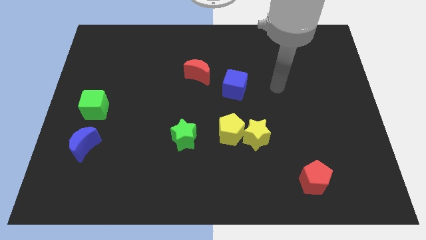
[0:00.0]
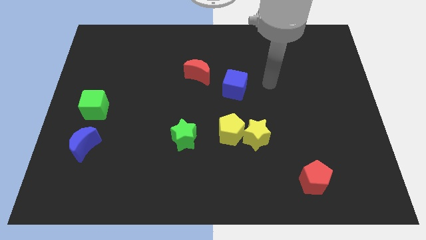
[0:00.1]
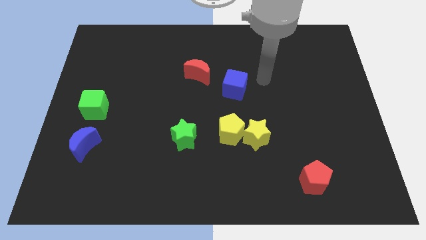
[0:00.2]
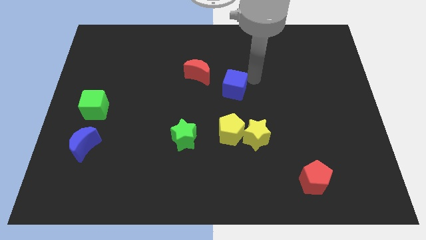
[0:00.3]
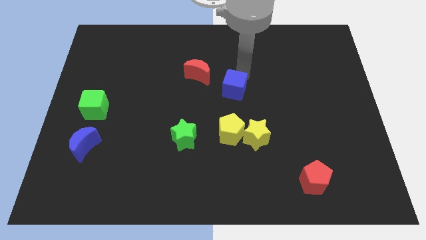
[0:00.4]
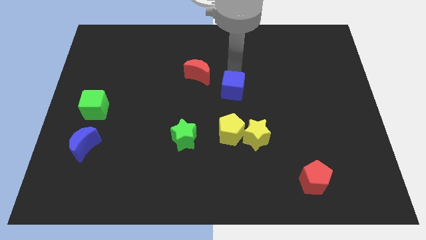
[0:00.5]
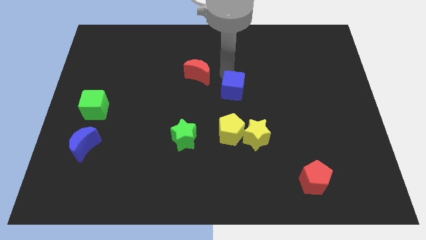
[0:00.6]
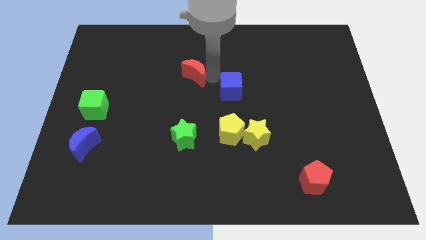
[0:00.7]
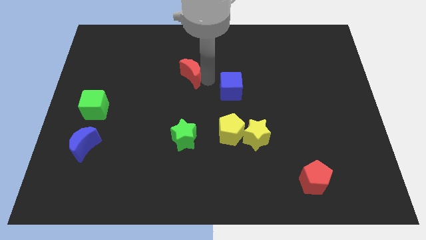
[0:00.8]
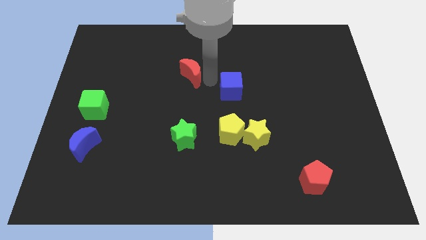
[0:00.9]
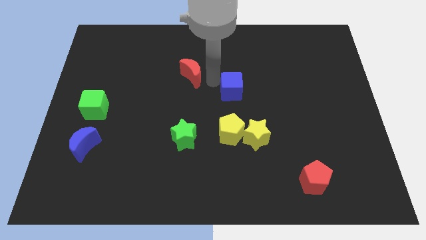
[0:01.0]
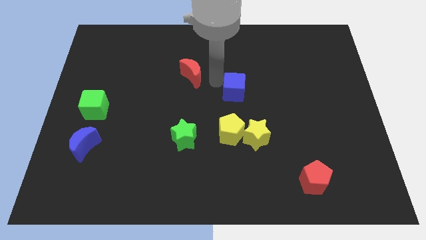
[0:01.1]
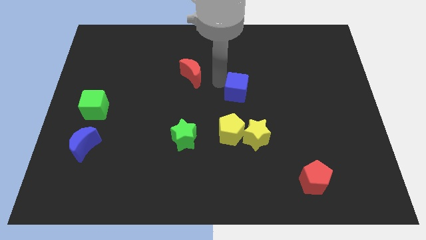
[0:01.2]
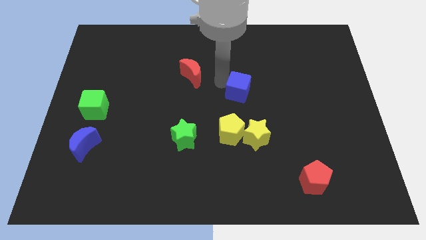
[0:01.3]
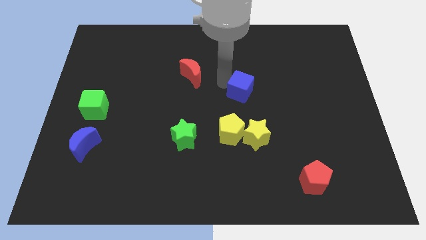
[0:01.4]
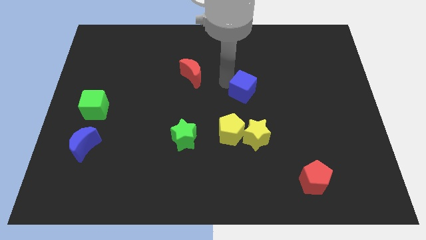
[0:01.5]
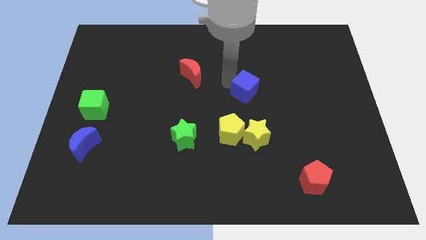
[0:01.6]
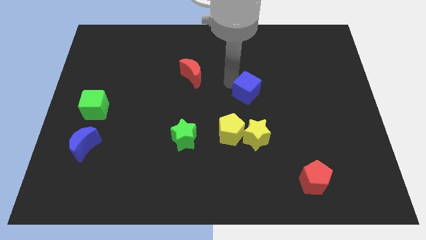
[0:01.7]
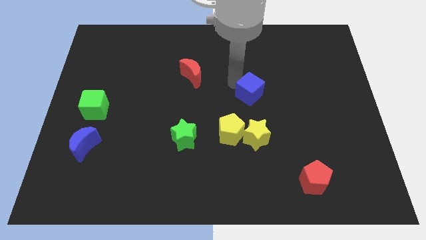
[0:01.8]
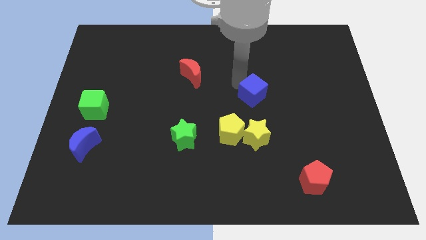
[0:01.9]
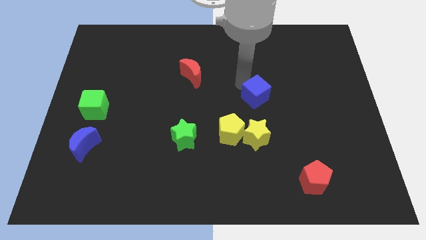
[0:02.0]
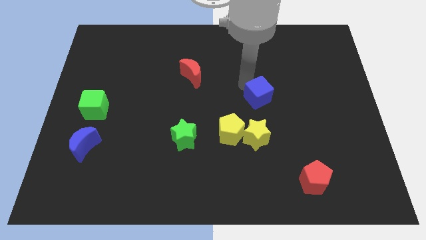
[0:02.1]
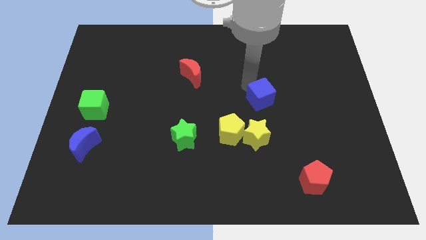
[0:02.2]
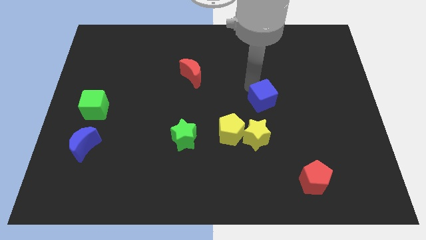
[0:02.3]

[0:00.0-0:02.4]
slightly push the blue cube down and to the right

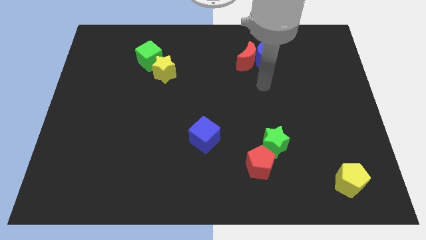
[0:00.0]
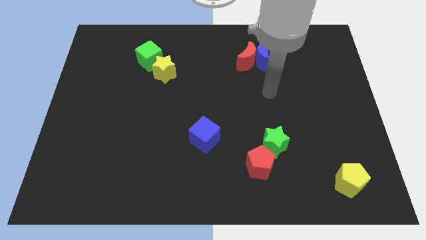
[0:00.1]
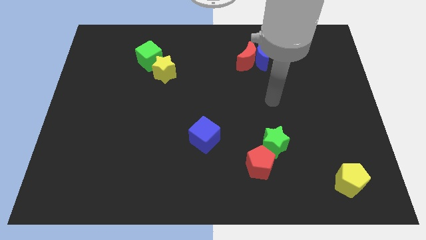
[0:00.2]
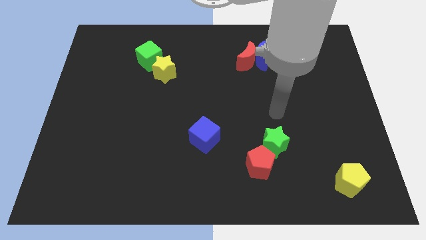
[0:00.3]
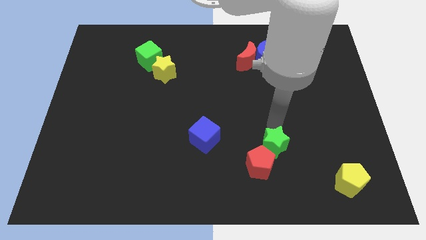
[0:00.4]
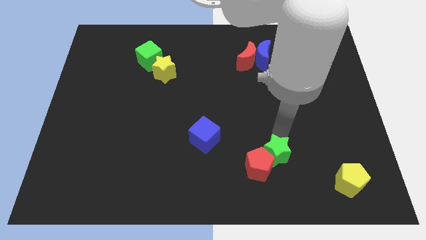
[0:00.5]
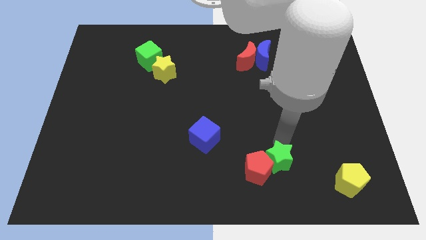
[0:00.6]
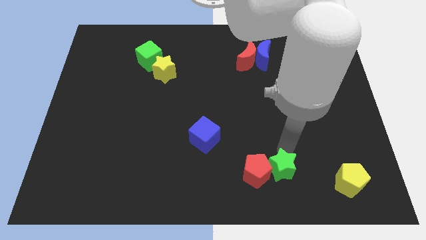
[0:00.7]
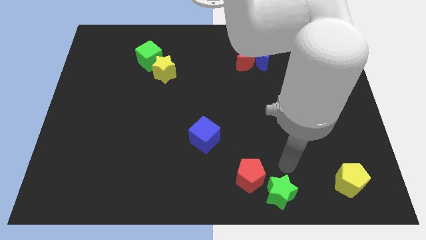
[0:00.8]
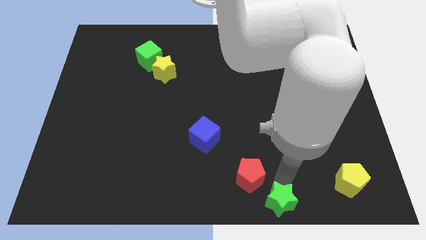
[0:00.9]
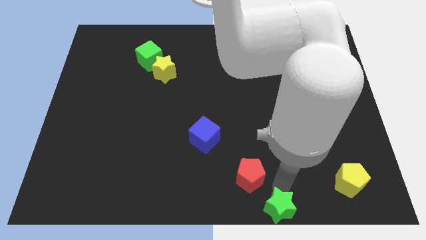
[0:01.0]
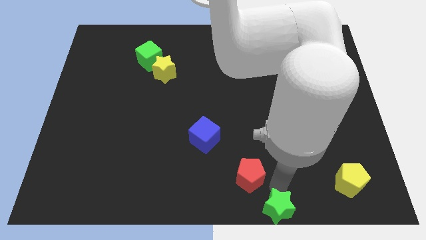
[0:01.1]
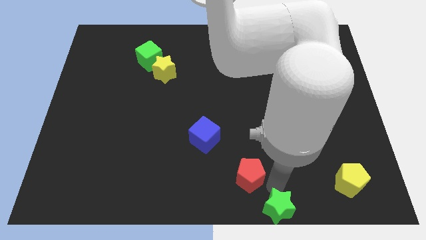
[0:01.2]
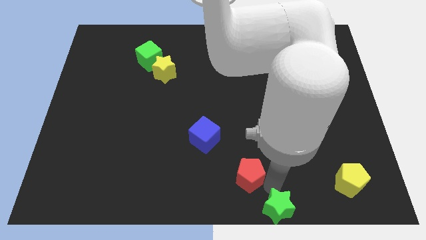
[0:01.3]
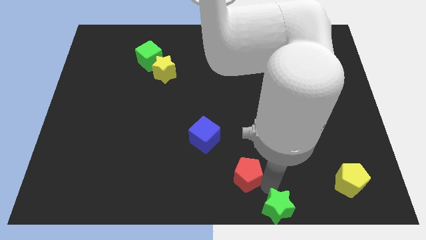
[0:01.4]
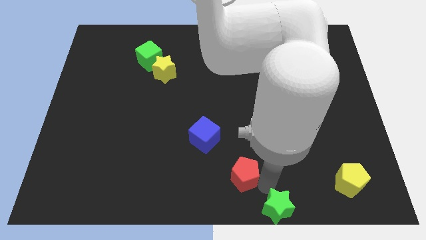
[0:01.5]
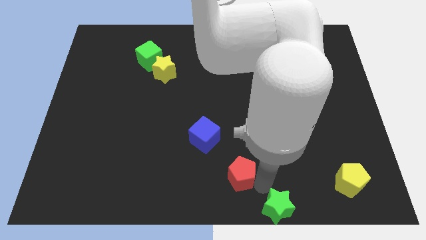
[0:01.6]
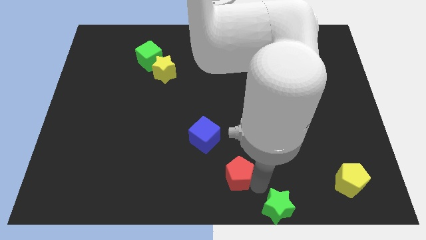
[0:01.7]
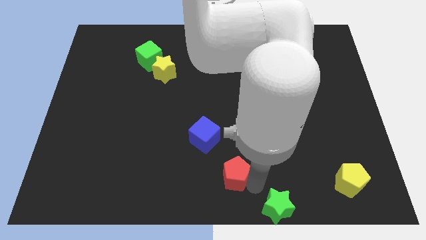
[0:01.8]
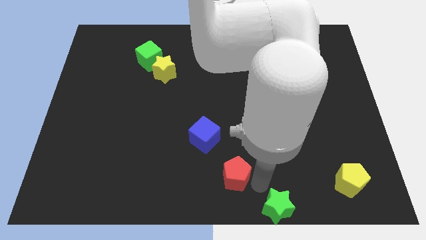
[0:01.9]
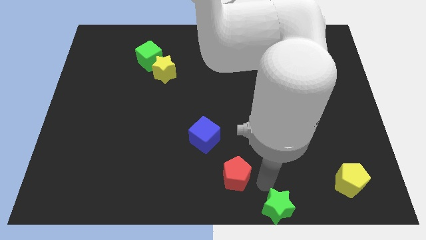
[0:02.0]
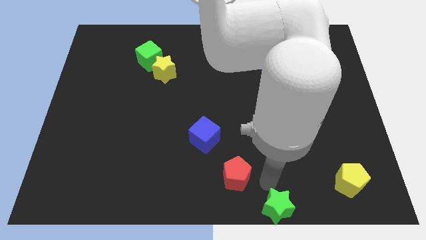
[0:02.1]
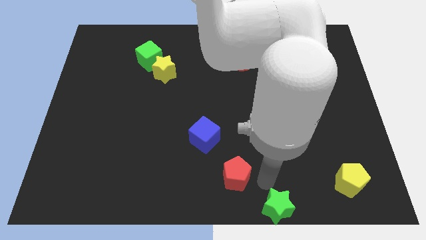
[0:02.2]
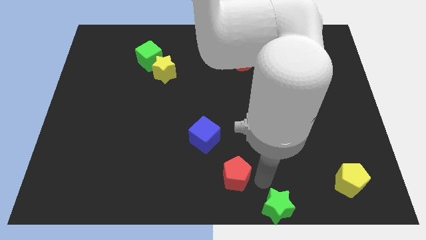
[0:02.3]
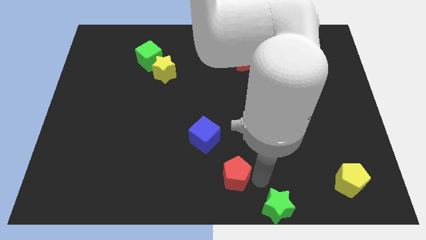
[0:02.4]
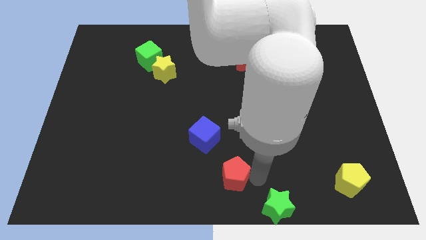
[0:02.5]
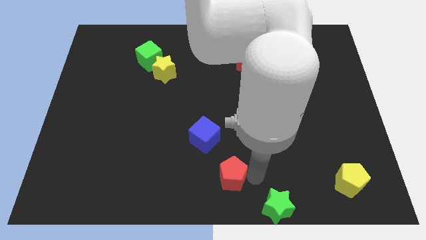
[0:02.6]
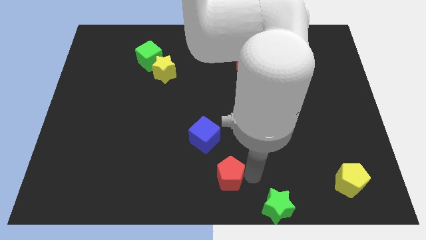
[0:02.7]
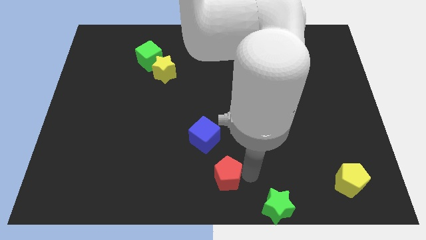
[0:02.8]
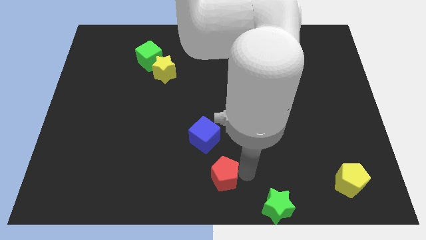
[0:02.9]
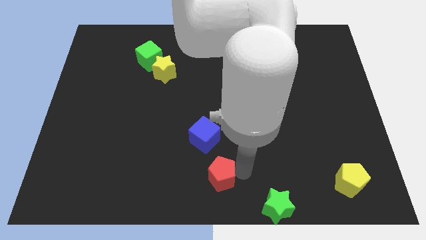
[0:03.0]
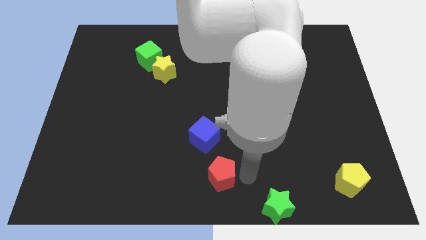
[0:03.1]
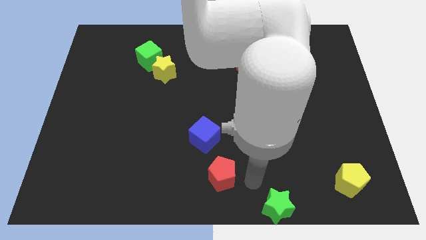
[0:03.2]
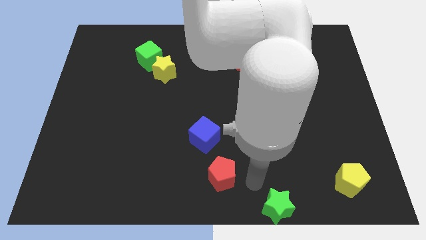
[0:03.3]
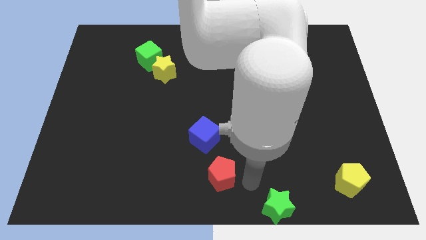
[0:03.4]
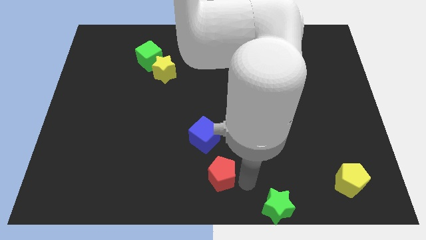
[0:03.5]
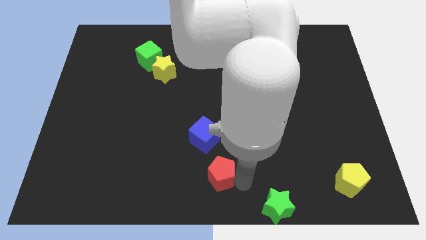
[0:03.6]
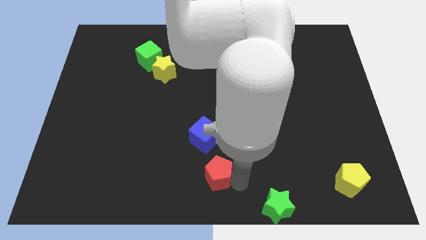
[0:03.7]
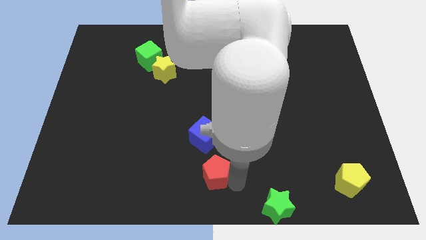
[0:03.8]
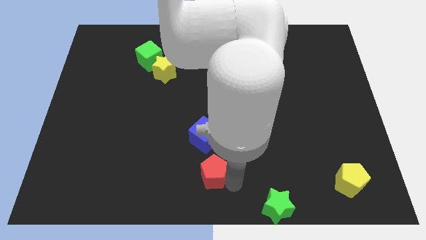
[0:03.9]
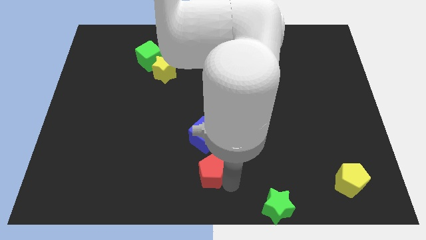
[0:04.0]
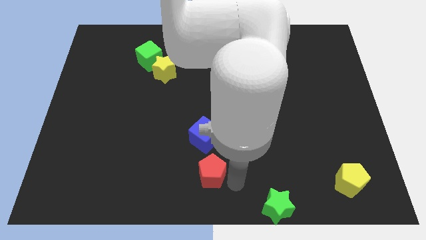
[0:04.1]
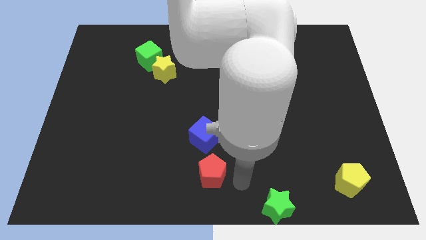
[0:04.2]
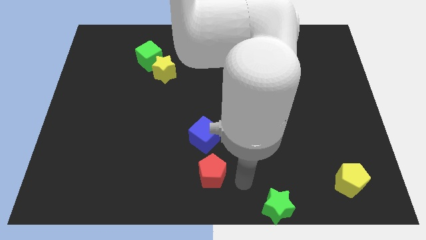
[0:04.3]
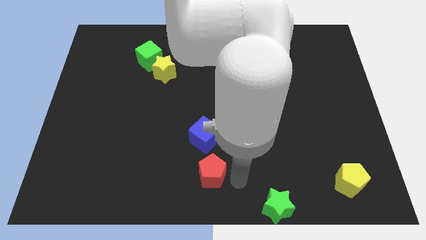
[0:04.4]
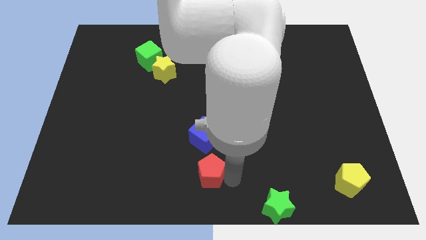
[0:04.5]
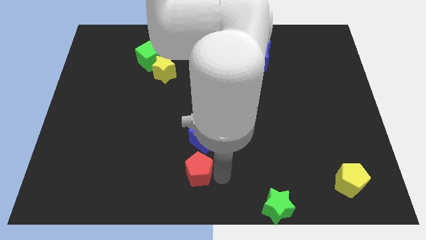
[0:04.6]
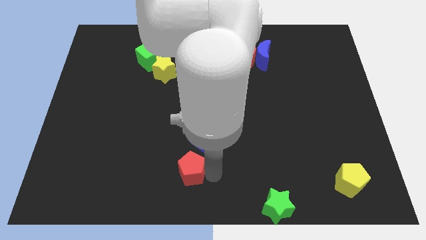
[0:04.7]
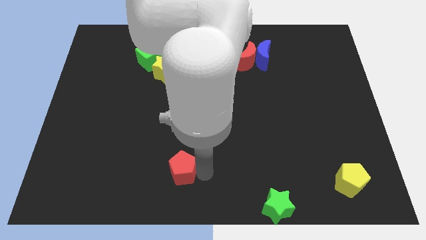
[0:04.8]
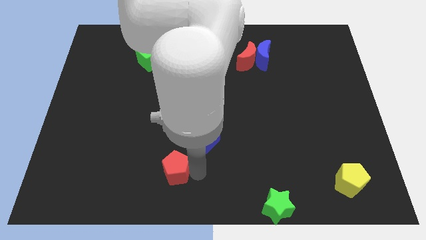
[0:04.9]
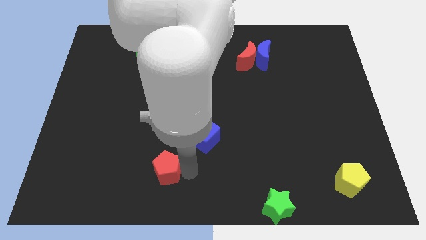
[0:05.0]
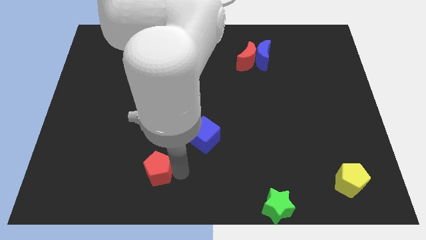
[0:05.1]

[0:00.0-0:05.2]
push the red pentagon left

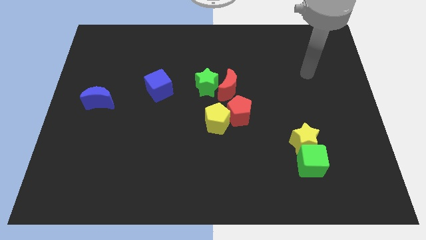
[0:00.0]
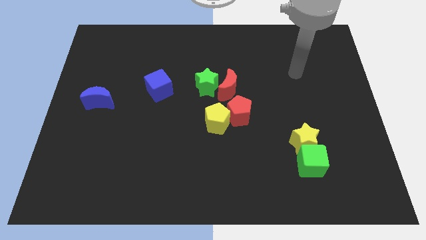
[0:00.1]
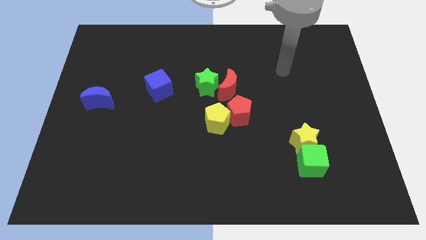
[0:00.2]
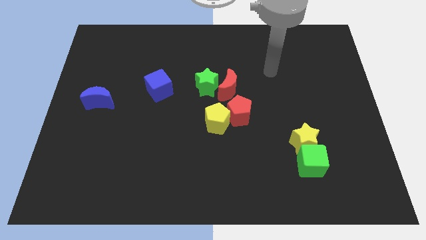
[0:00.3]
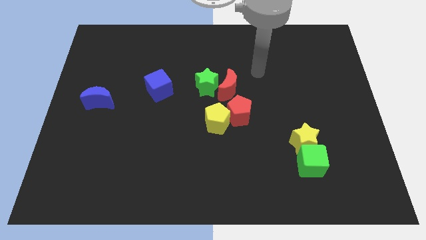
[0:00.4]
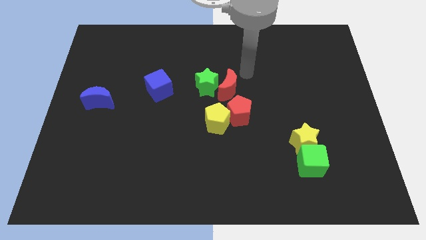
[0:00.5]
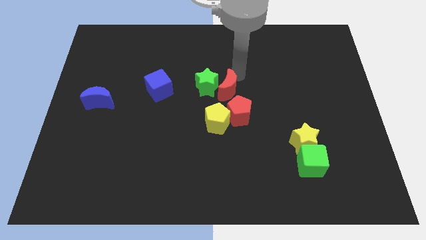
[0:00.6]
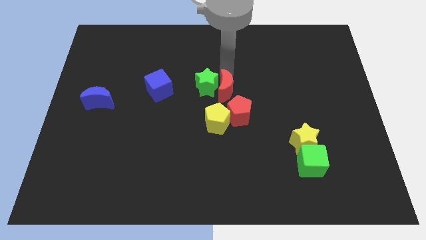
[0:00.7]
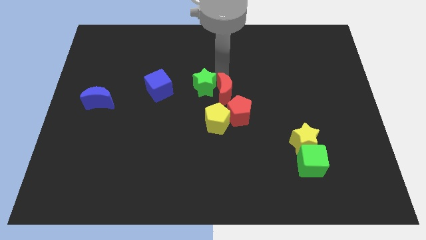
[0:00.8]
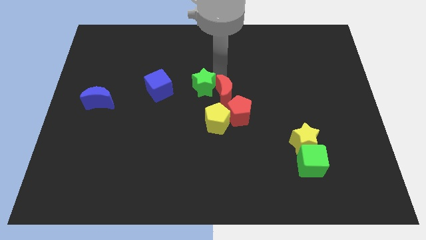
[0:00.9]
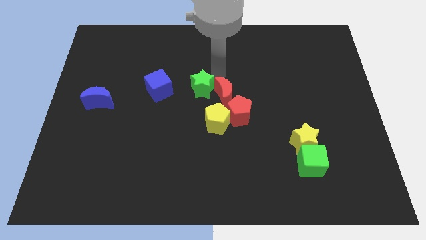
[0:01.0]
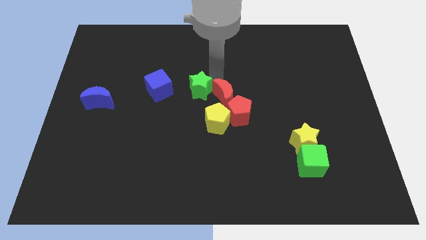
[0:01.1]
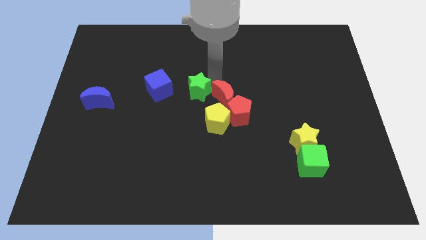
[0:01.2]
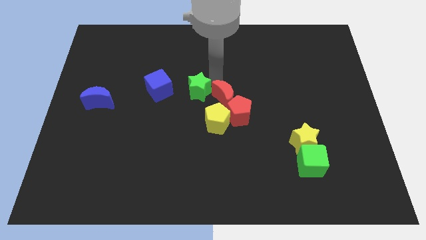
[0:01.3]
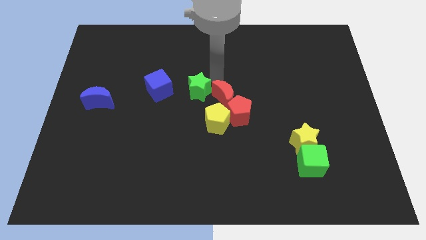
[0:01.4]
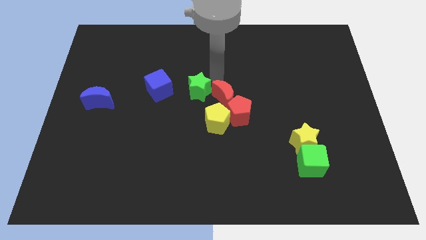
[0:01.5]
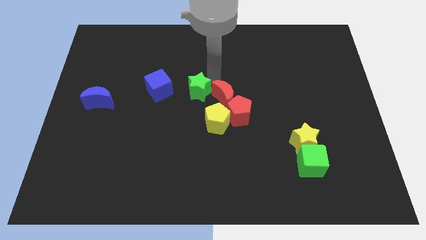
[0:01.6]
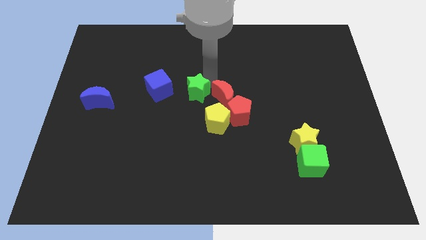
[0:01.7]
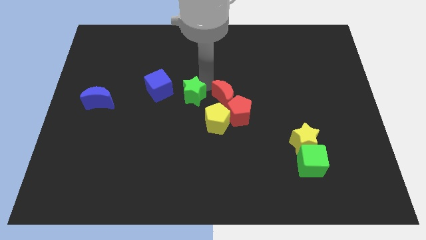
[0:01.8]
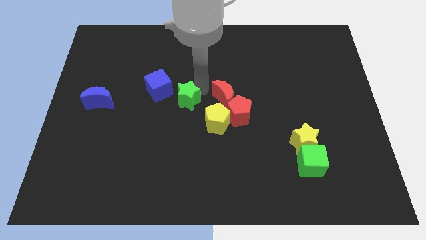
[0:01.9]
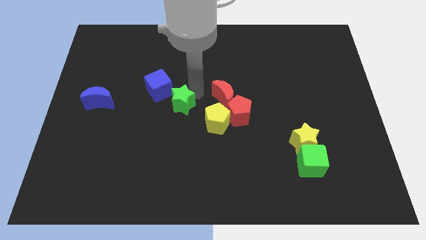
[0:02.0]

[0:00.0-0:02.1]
slightly move the green star downwards and then left
